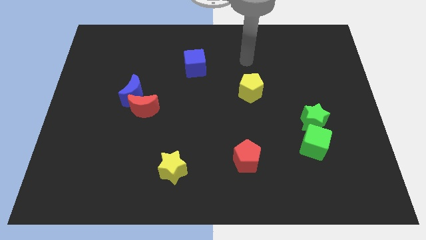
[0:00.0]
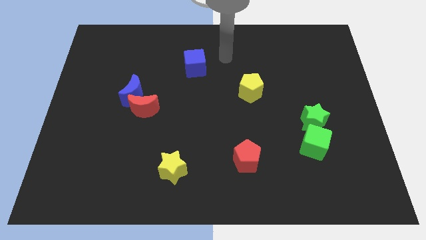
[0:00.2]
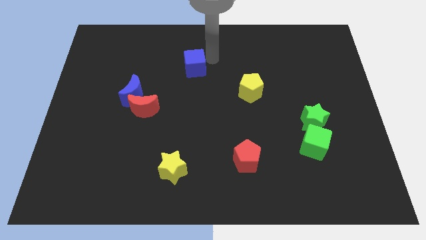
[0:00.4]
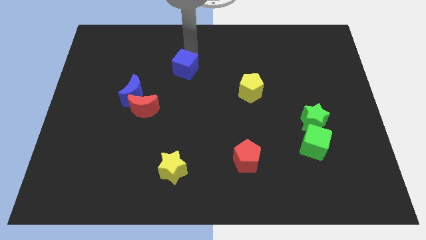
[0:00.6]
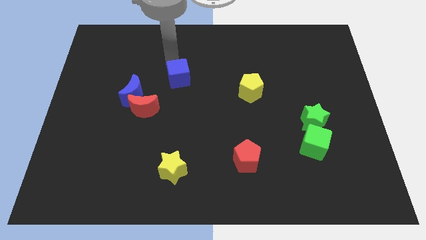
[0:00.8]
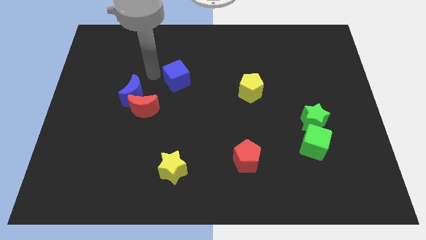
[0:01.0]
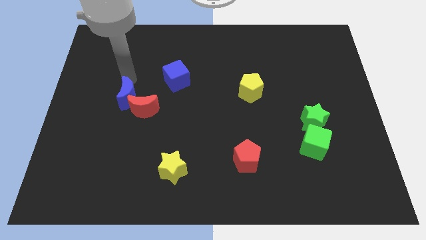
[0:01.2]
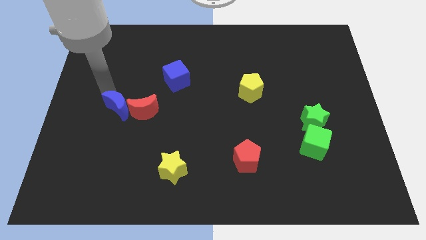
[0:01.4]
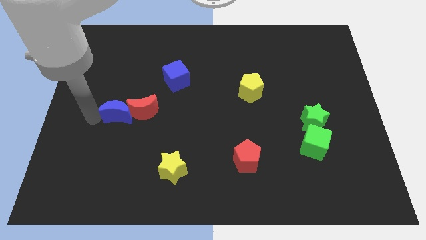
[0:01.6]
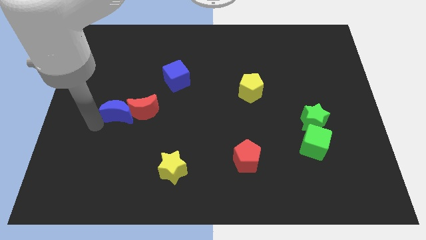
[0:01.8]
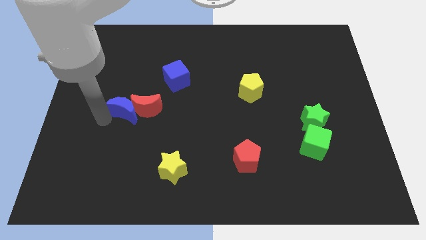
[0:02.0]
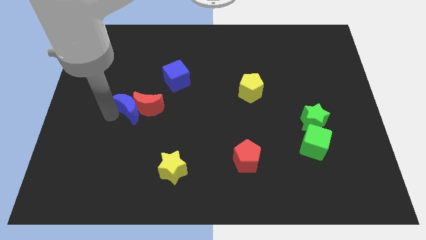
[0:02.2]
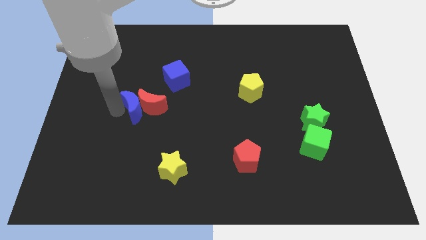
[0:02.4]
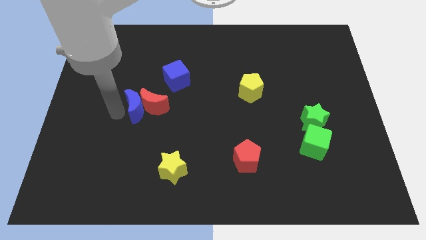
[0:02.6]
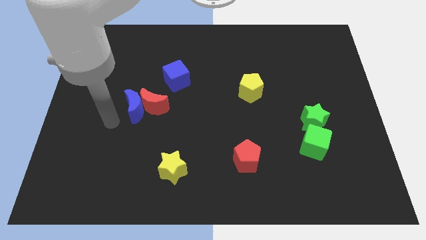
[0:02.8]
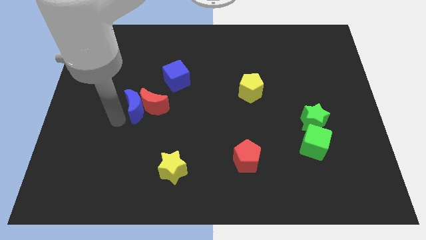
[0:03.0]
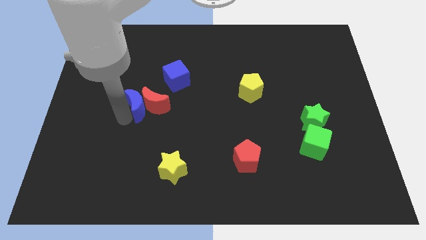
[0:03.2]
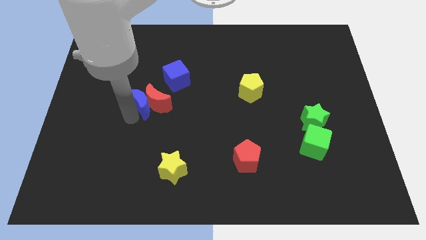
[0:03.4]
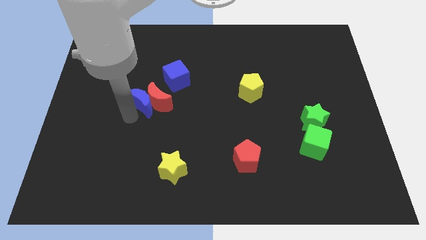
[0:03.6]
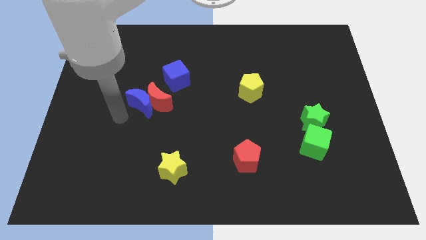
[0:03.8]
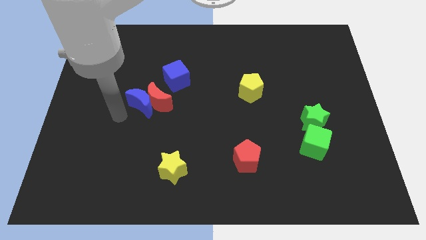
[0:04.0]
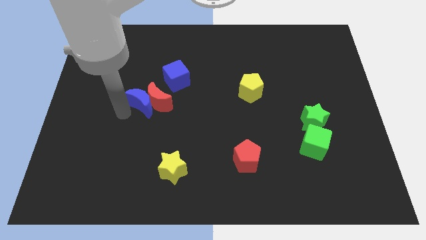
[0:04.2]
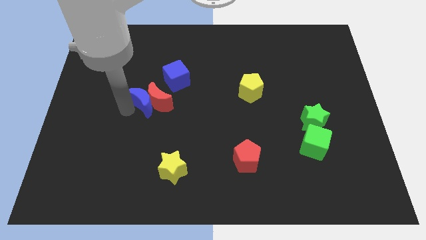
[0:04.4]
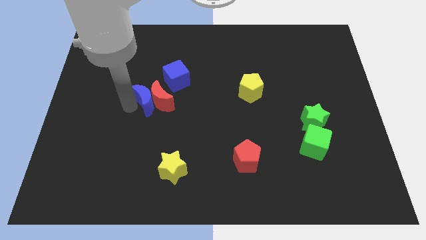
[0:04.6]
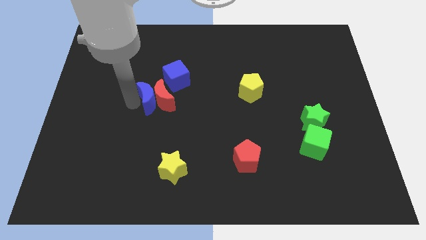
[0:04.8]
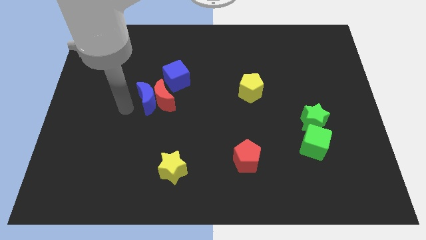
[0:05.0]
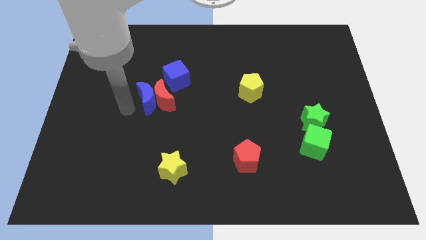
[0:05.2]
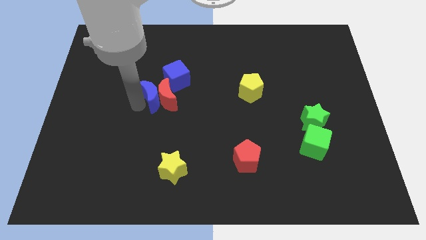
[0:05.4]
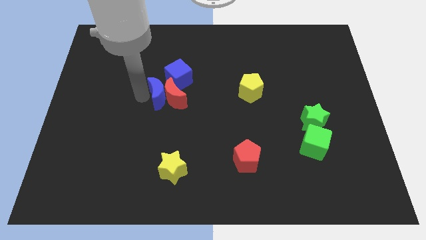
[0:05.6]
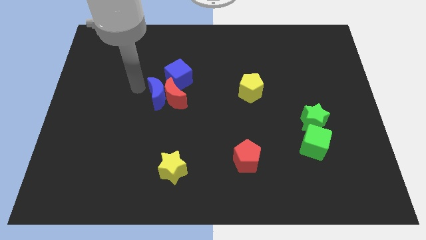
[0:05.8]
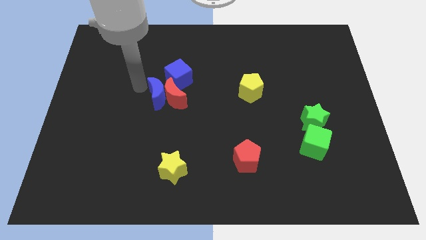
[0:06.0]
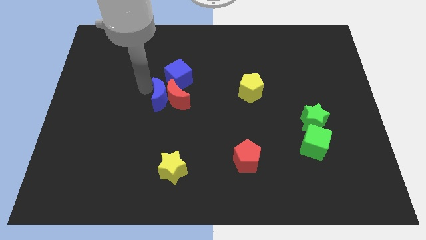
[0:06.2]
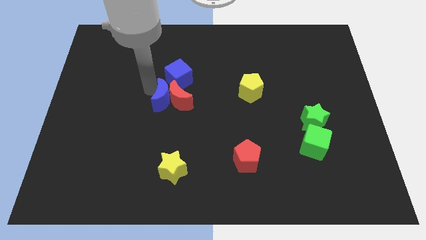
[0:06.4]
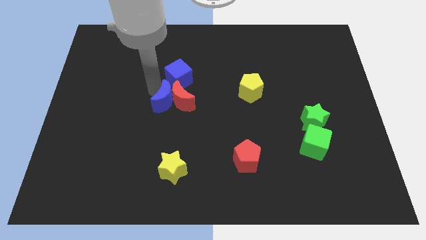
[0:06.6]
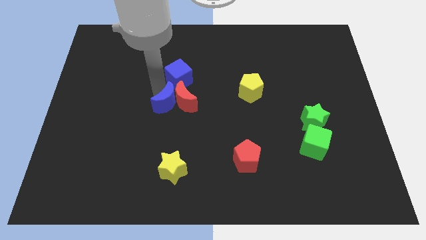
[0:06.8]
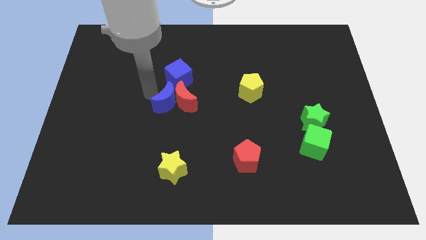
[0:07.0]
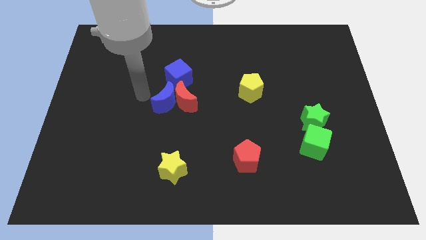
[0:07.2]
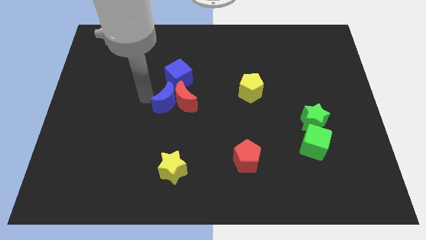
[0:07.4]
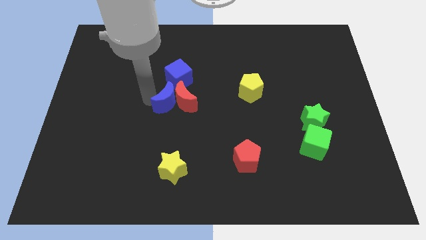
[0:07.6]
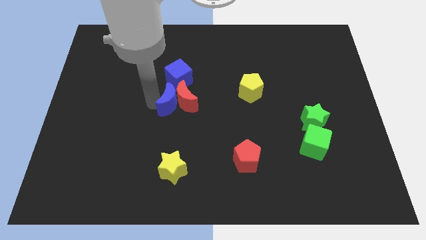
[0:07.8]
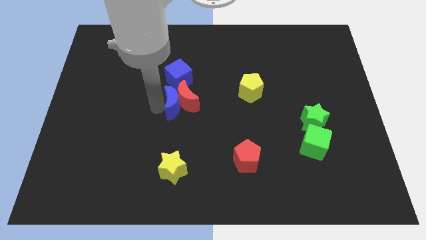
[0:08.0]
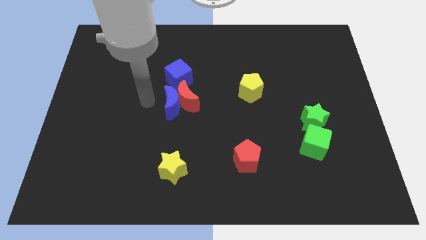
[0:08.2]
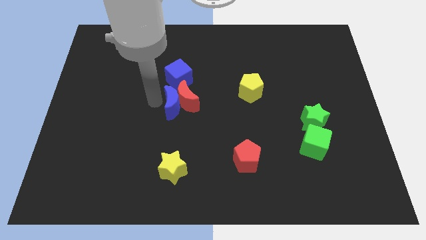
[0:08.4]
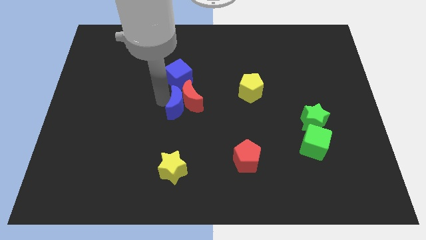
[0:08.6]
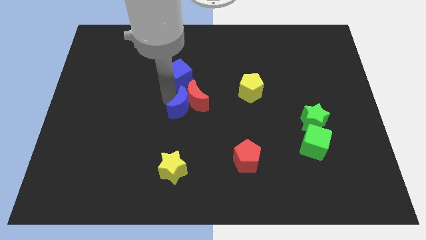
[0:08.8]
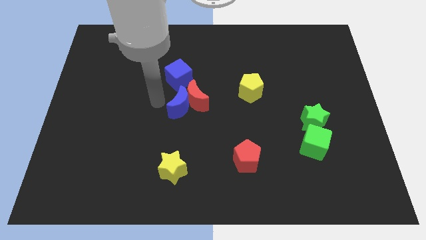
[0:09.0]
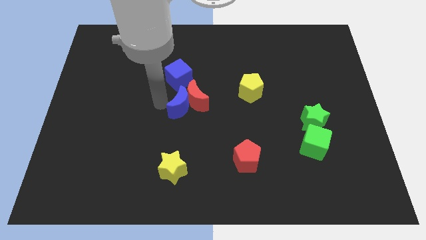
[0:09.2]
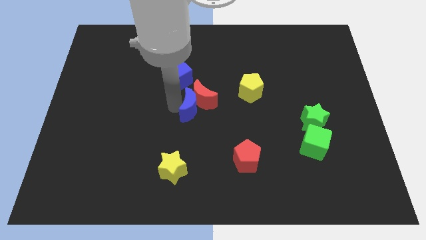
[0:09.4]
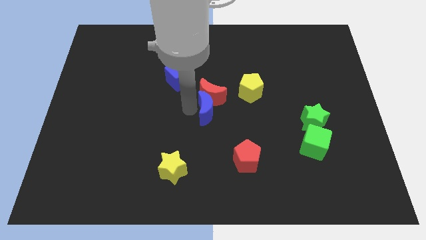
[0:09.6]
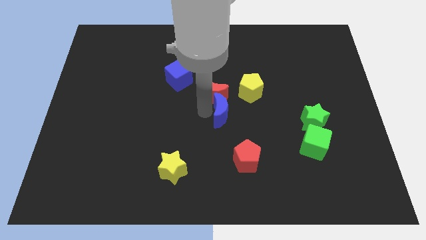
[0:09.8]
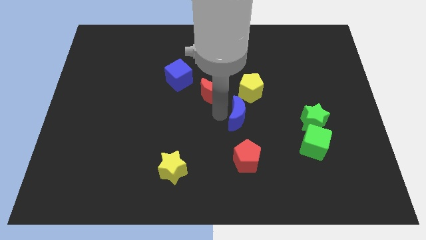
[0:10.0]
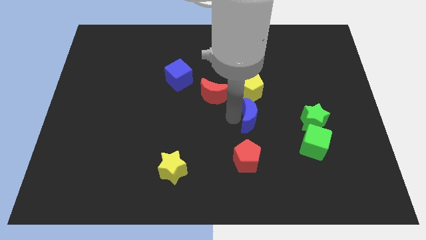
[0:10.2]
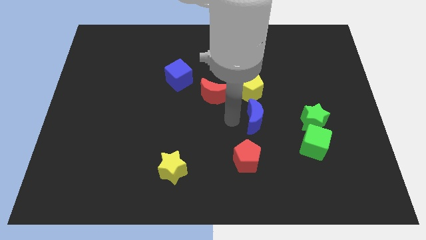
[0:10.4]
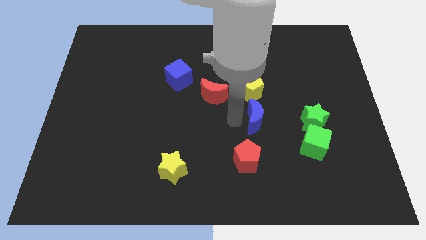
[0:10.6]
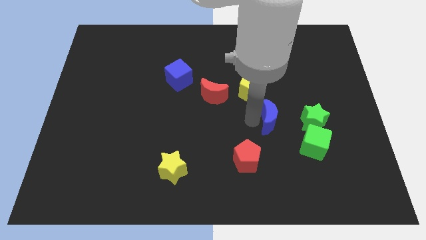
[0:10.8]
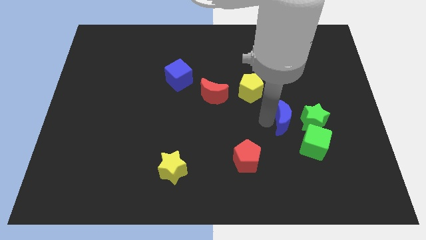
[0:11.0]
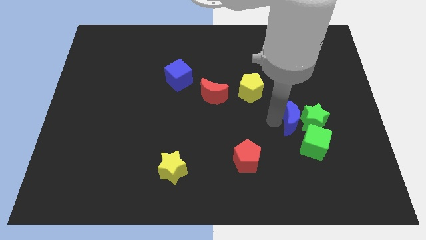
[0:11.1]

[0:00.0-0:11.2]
push the blue moon towards the green star
